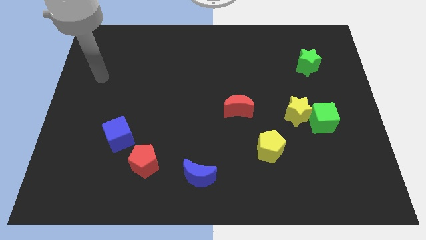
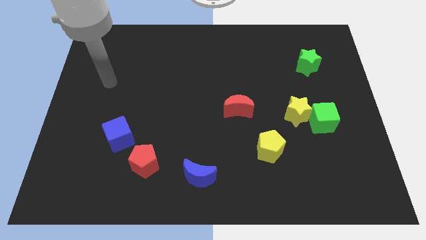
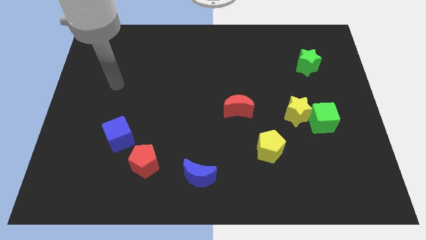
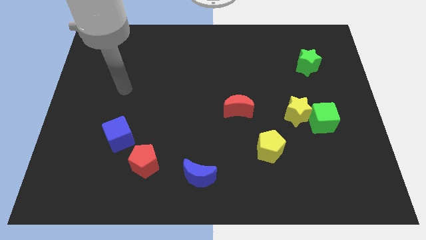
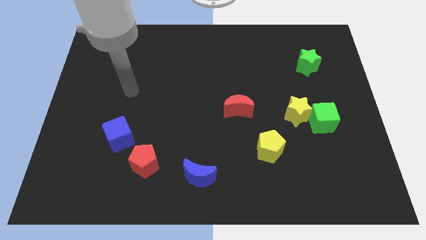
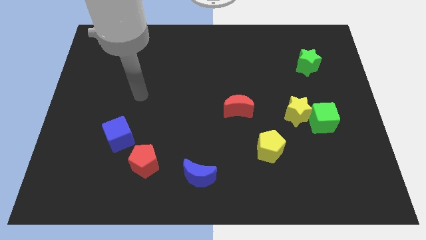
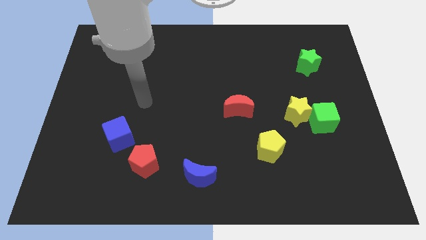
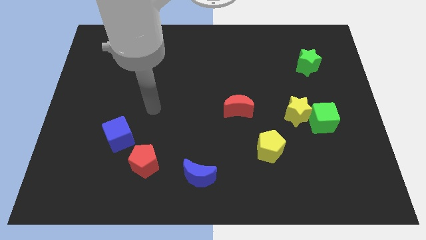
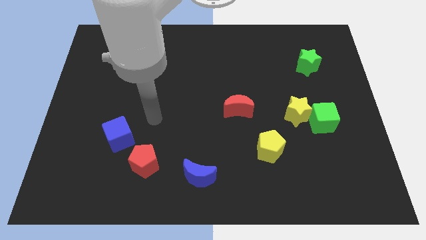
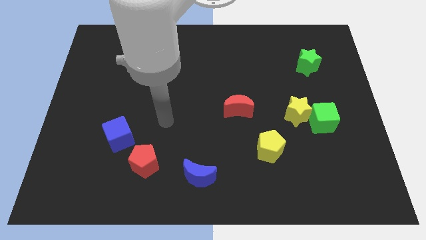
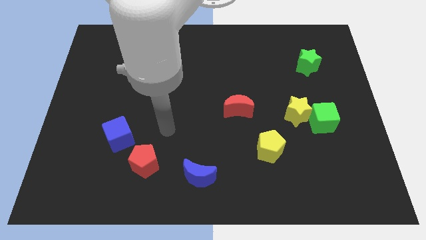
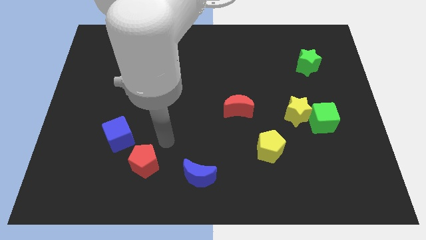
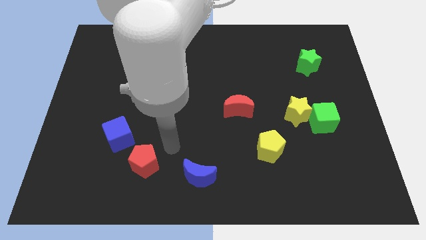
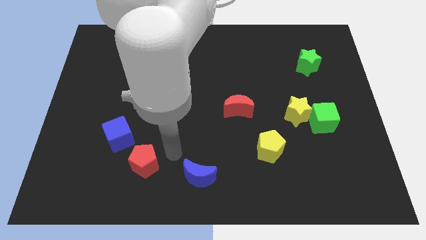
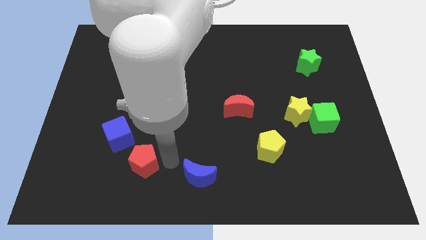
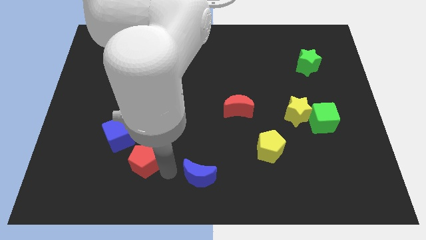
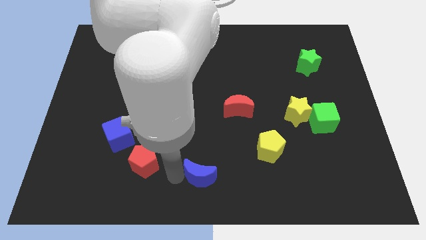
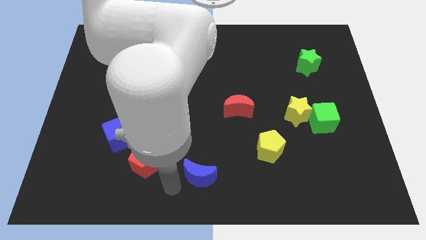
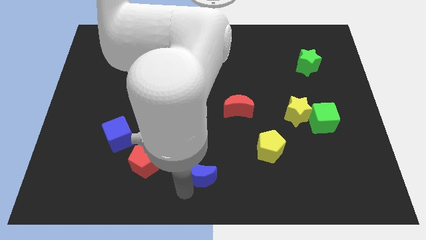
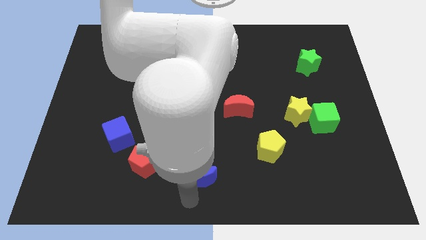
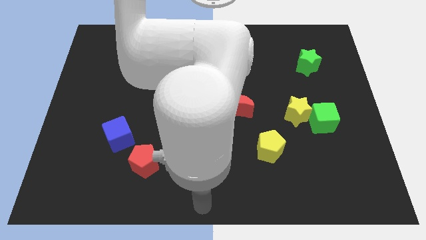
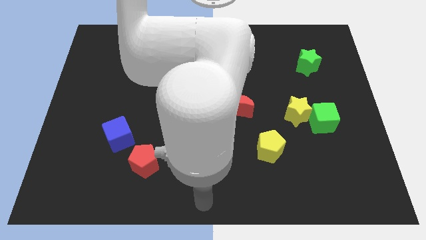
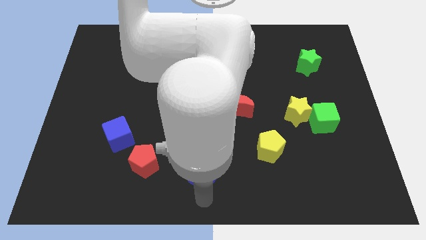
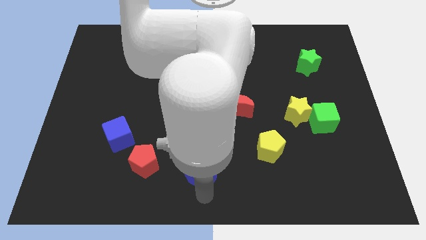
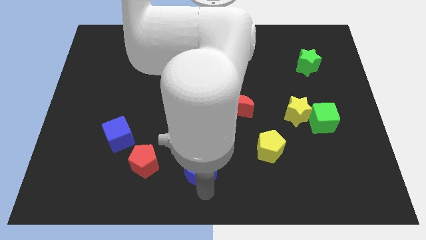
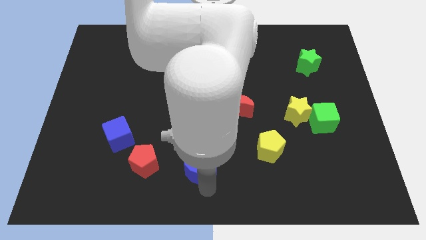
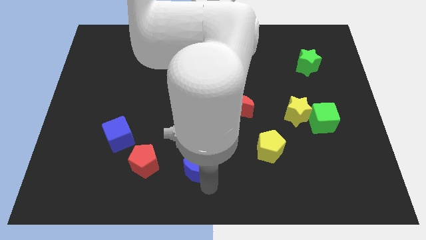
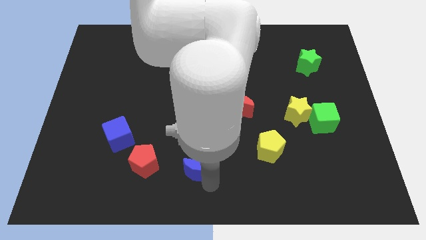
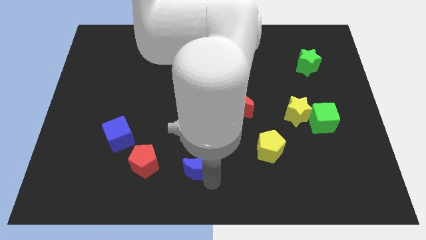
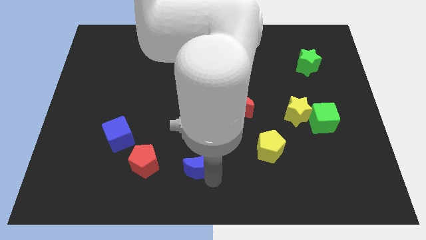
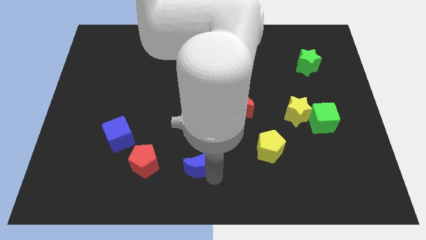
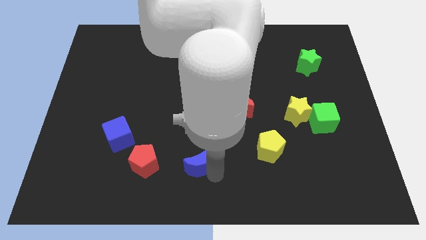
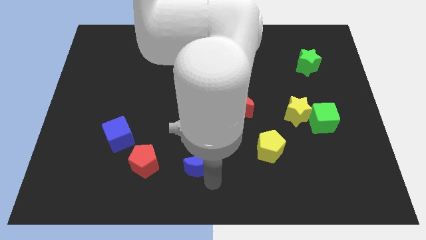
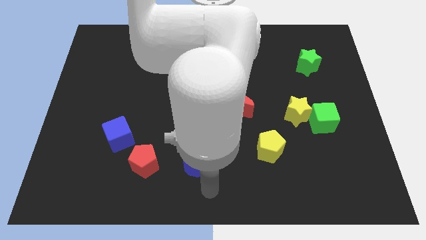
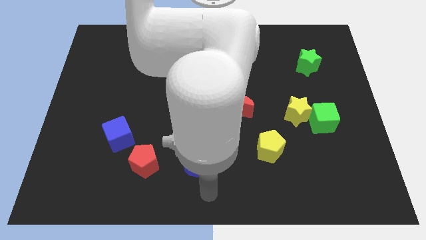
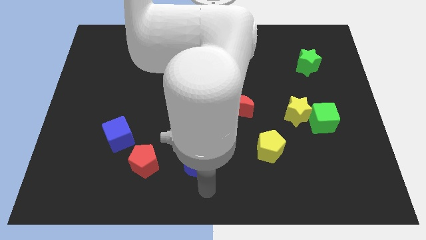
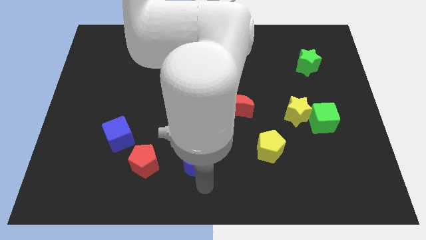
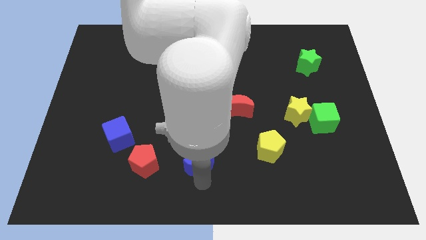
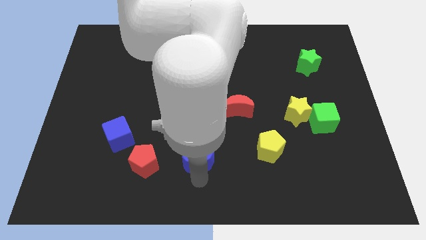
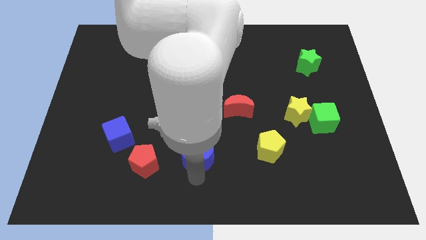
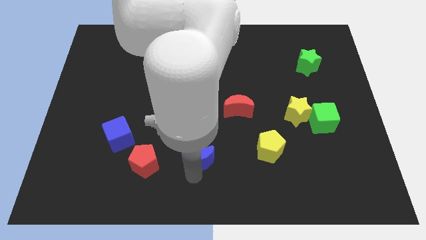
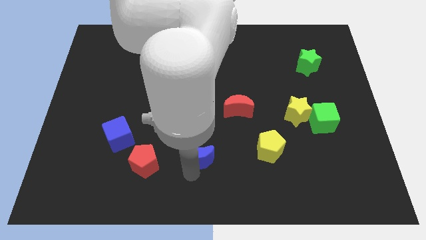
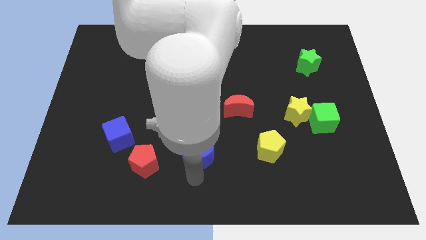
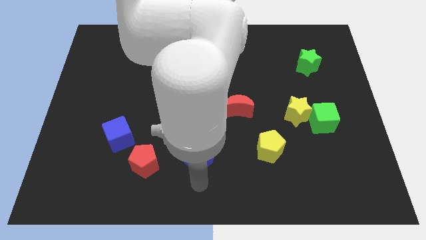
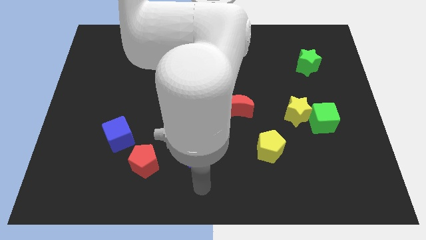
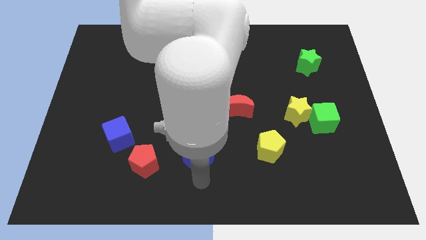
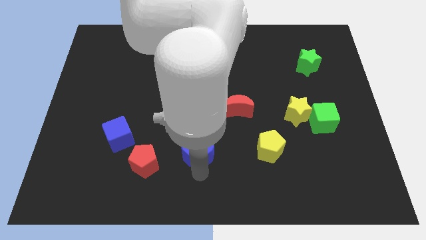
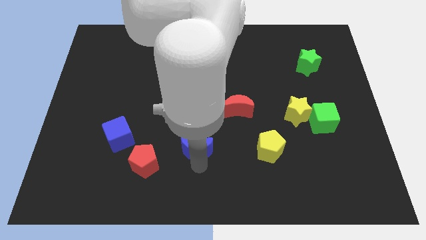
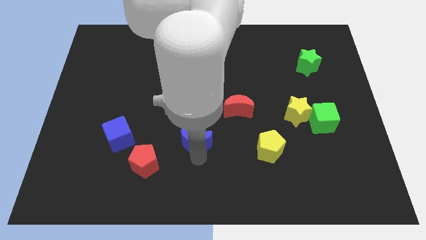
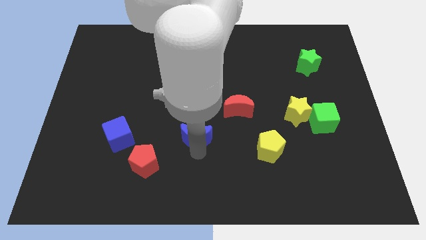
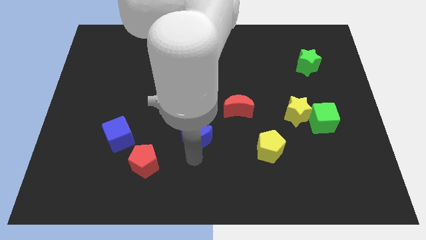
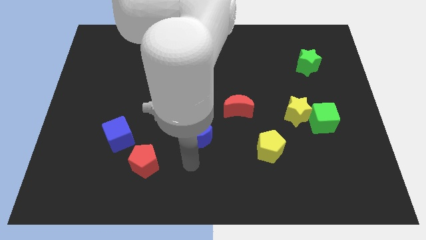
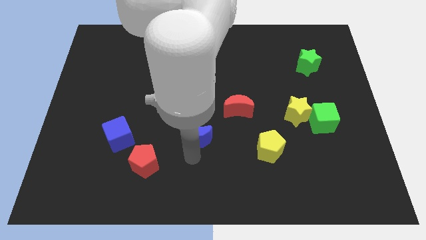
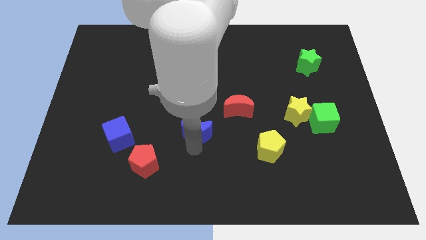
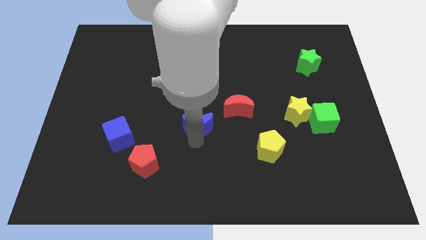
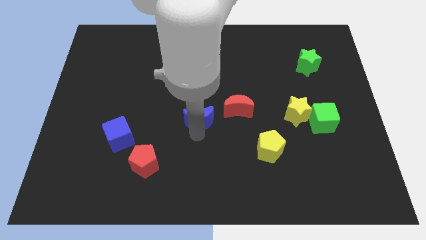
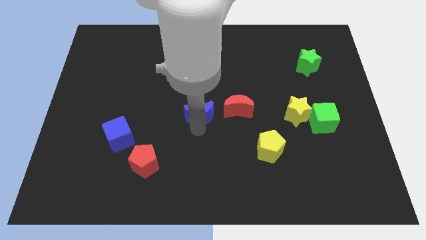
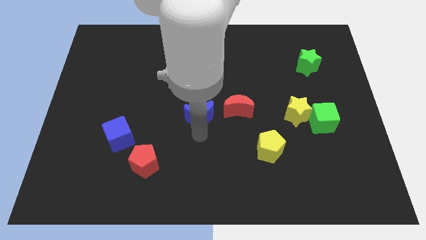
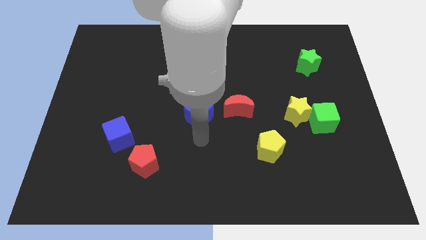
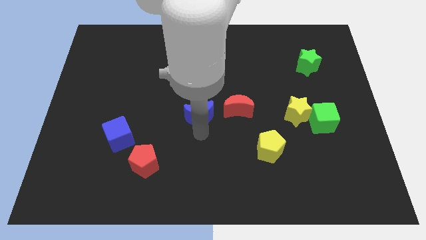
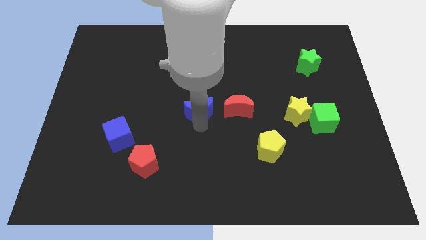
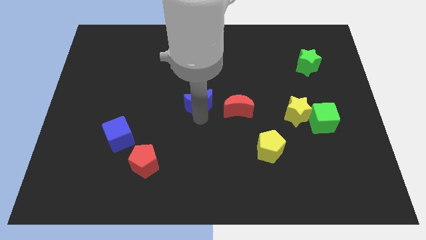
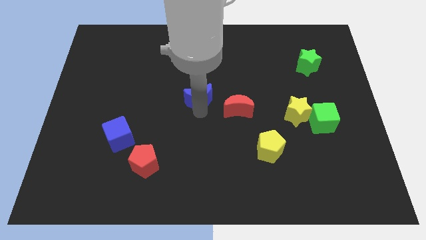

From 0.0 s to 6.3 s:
push the blue moon upwards

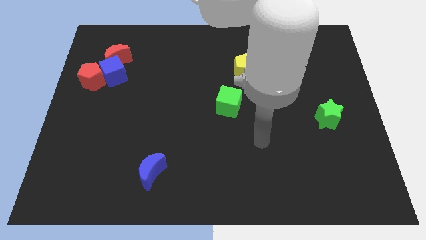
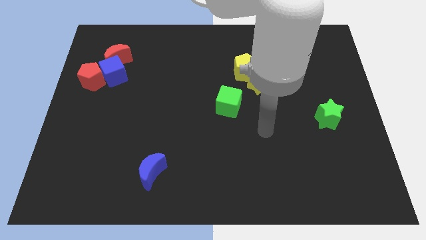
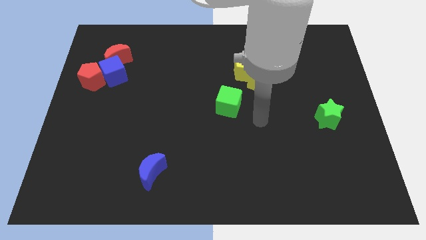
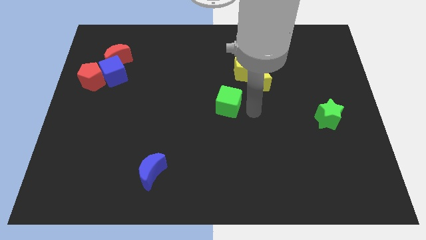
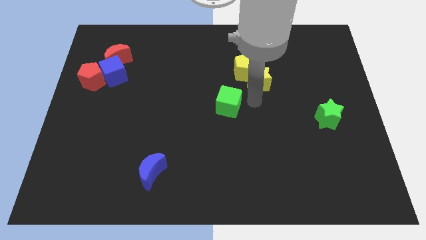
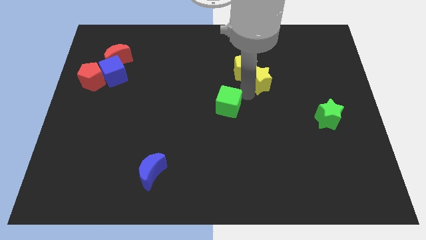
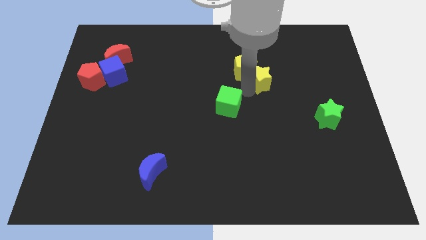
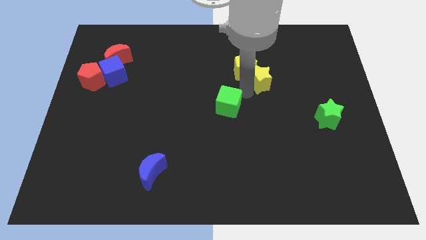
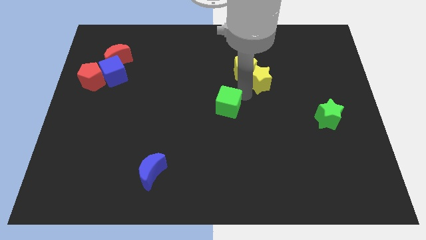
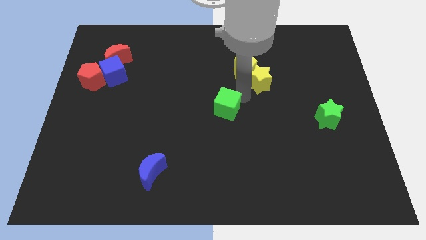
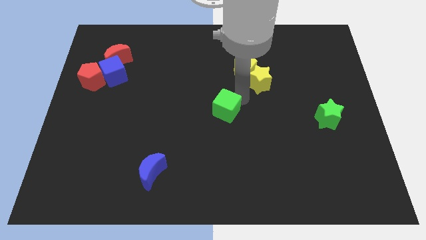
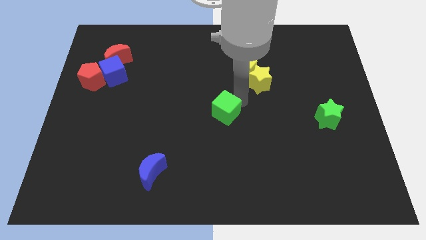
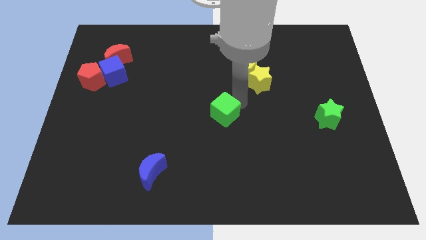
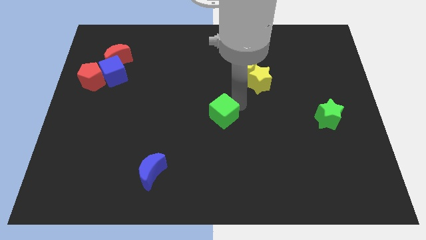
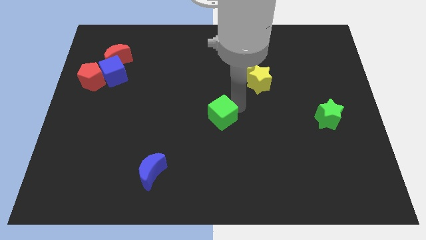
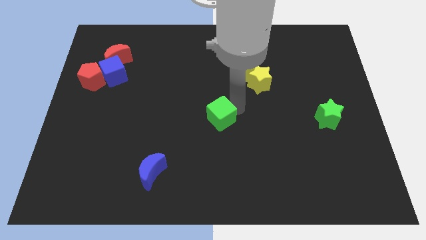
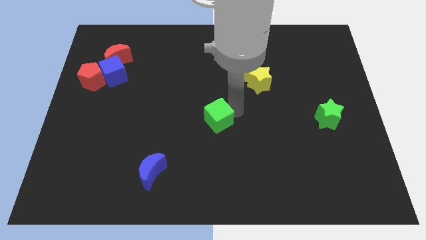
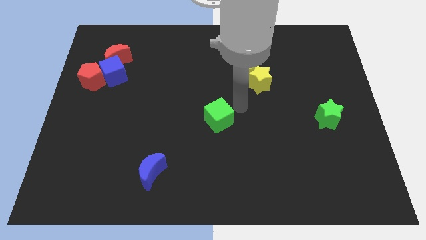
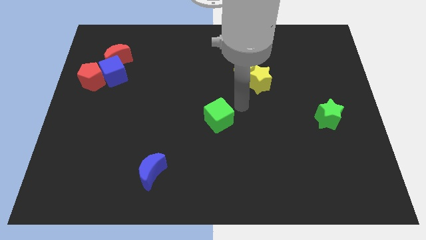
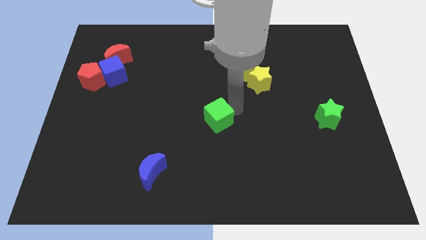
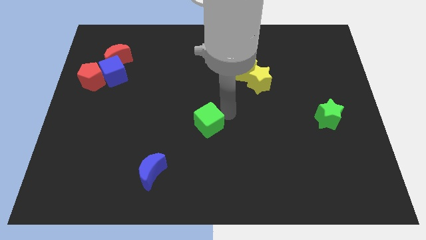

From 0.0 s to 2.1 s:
push the green cube somewhat downwards and left
